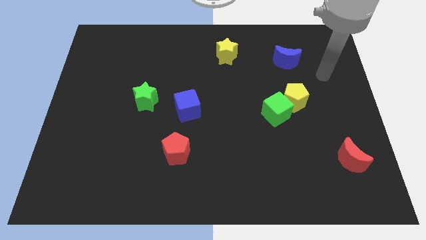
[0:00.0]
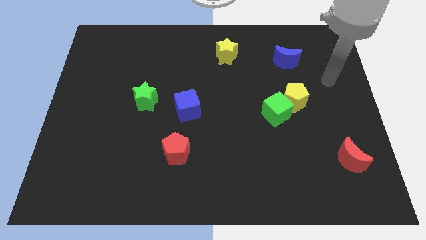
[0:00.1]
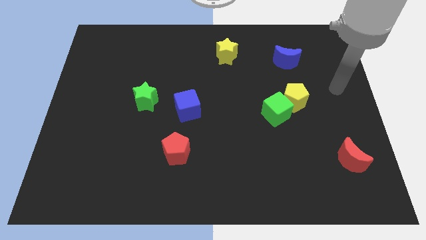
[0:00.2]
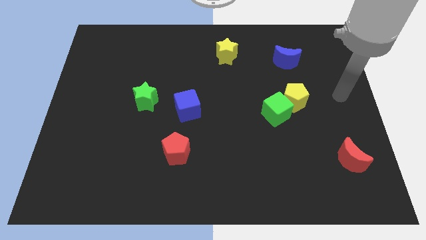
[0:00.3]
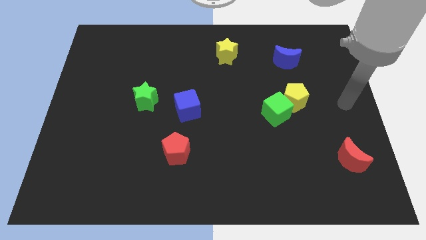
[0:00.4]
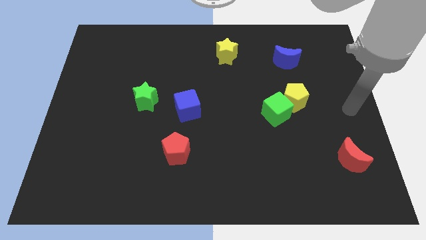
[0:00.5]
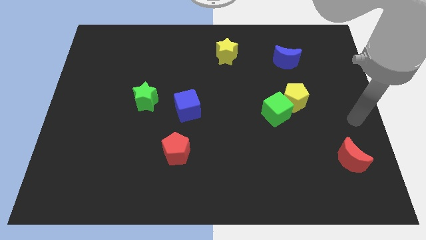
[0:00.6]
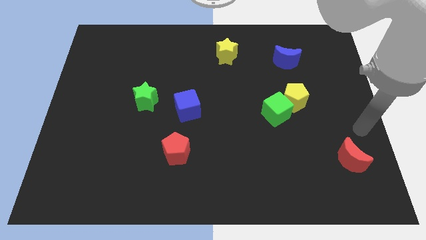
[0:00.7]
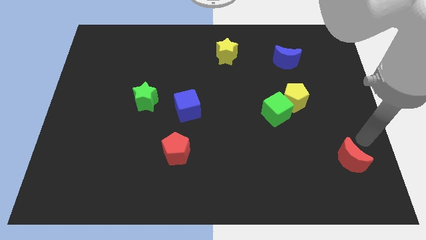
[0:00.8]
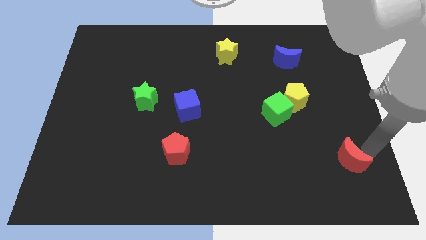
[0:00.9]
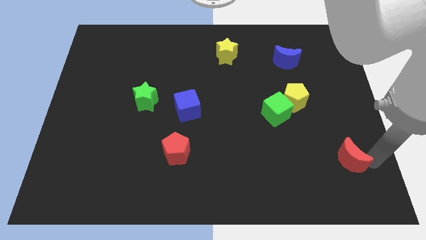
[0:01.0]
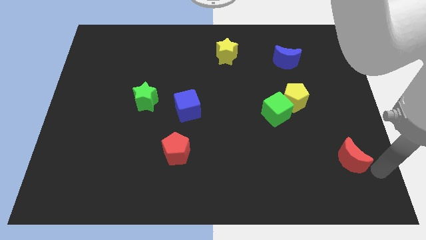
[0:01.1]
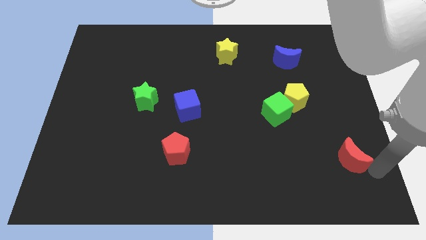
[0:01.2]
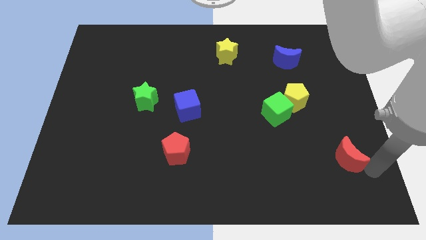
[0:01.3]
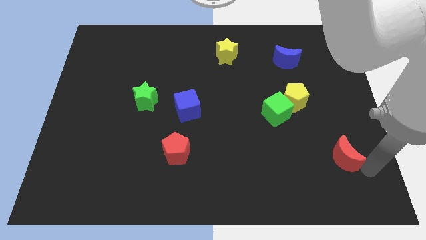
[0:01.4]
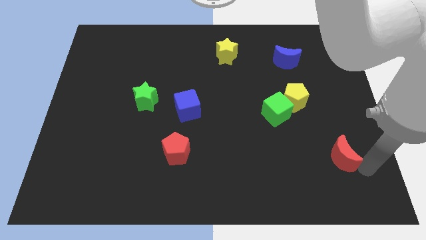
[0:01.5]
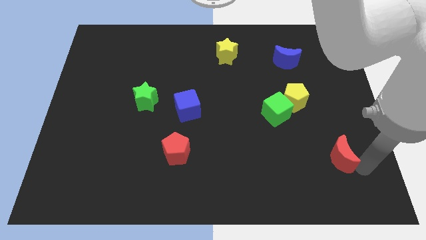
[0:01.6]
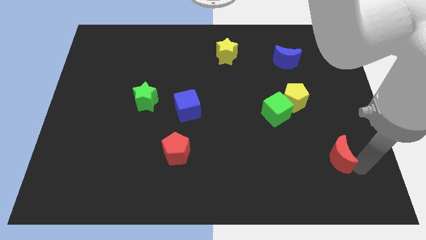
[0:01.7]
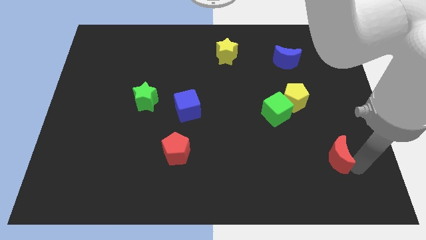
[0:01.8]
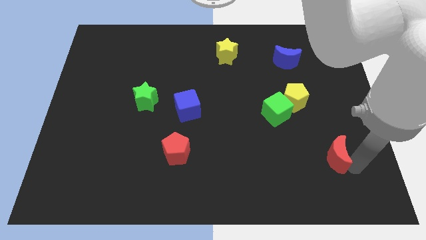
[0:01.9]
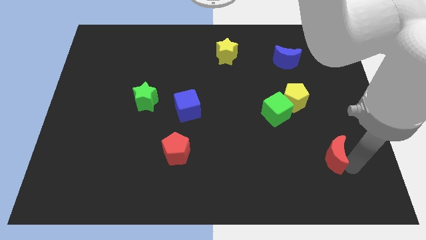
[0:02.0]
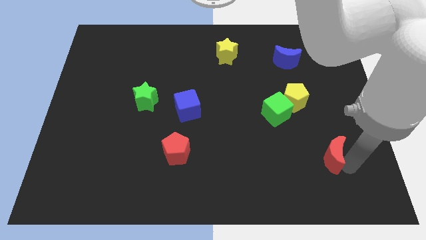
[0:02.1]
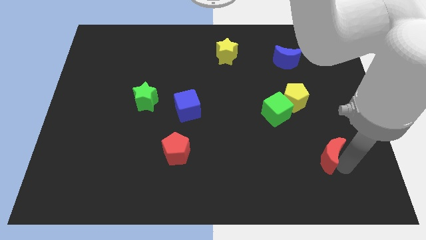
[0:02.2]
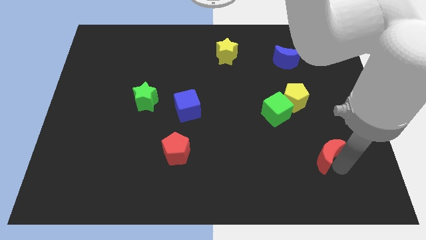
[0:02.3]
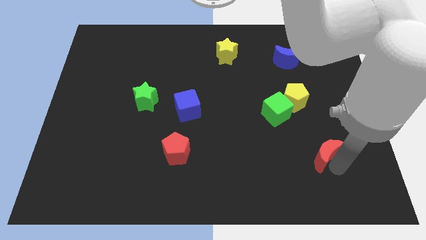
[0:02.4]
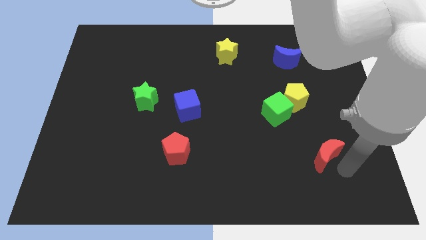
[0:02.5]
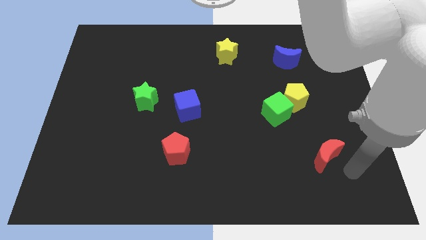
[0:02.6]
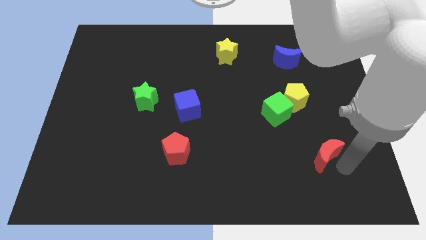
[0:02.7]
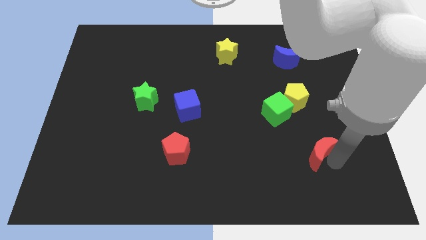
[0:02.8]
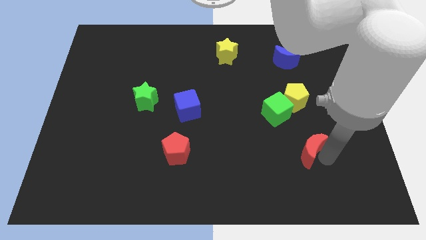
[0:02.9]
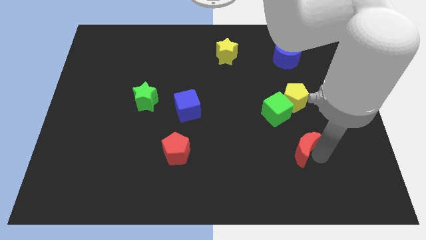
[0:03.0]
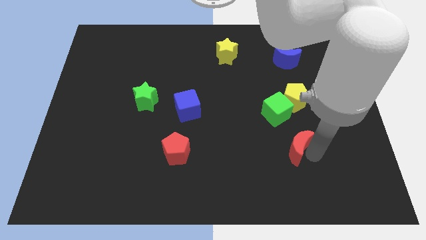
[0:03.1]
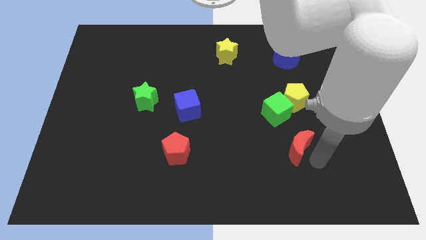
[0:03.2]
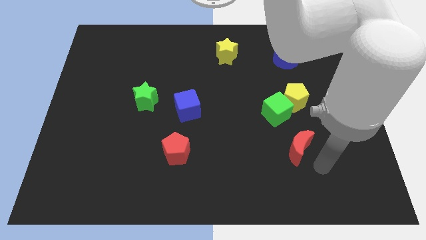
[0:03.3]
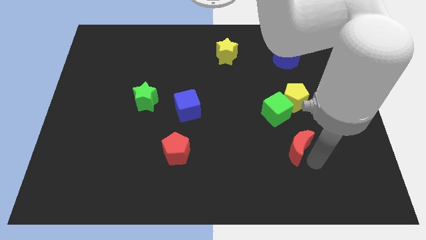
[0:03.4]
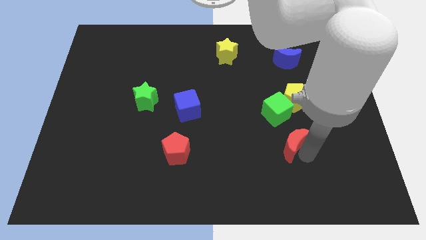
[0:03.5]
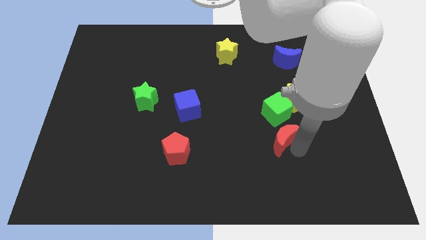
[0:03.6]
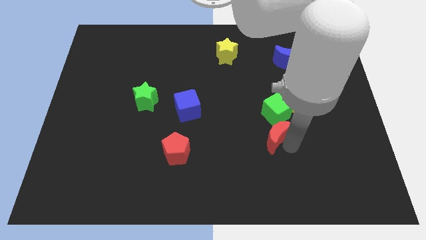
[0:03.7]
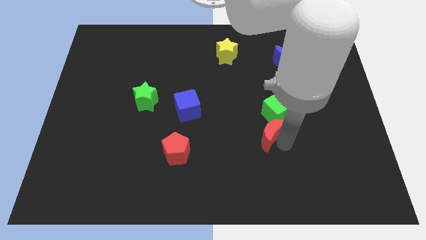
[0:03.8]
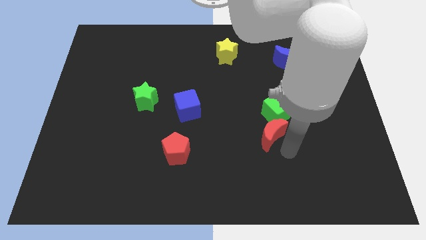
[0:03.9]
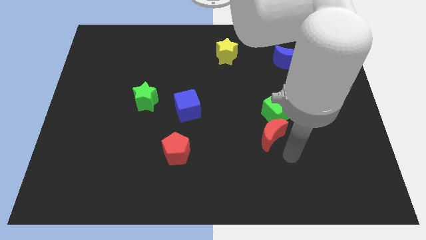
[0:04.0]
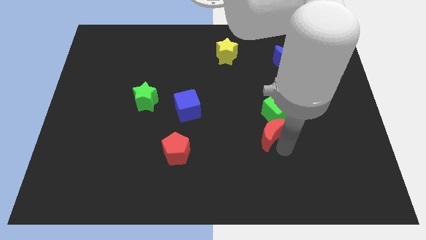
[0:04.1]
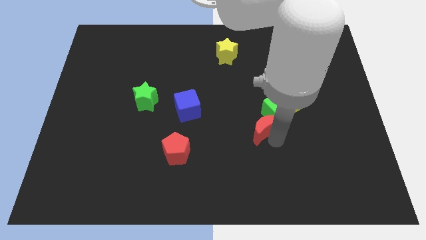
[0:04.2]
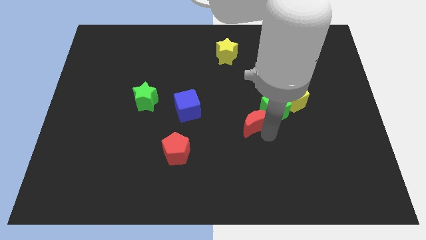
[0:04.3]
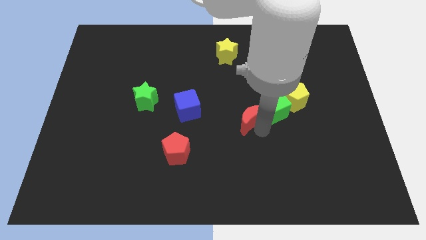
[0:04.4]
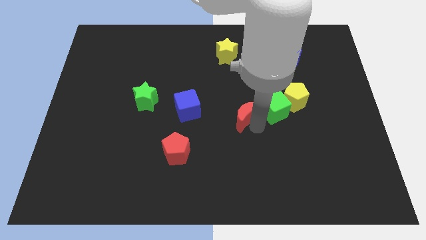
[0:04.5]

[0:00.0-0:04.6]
move the red moon diagonally upwards and left

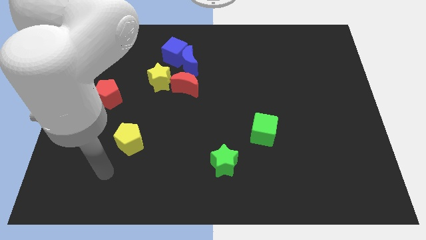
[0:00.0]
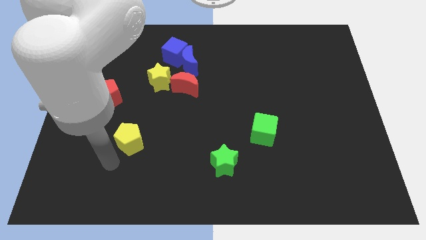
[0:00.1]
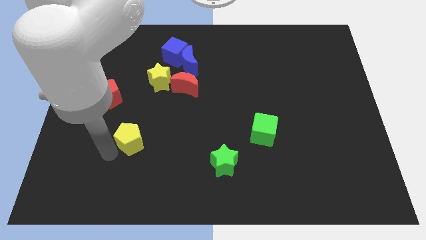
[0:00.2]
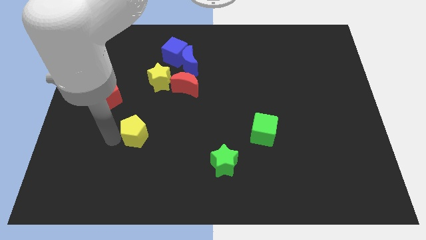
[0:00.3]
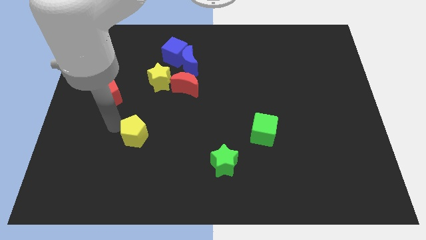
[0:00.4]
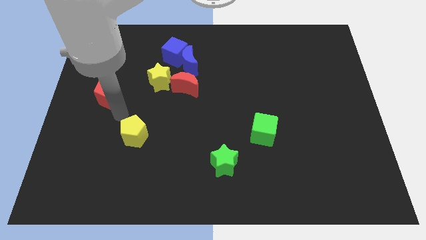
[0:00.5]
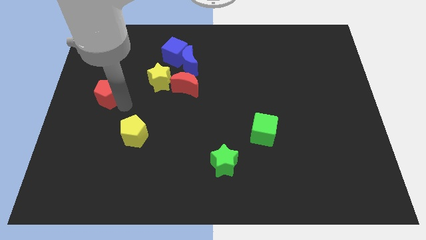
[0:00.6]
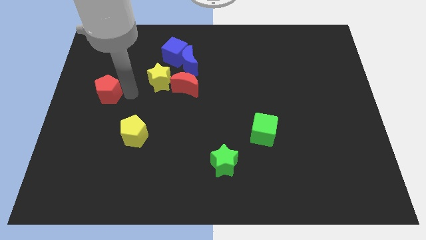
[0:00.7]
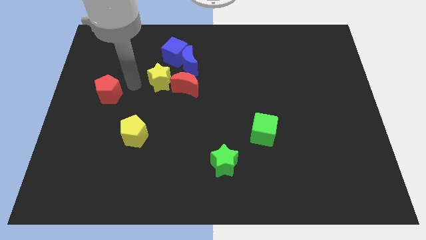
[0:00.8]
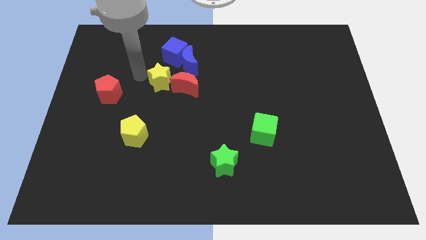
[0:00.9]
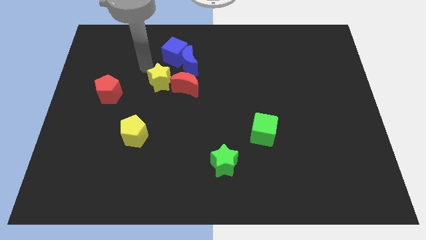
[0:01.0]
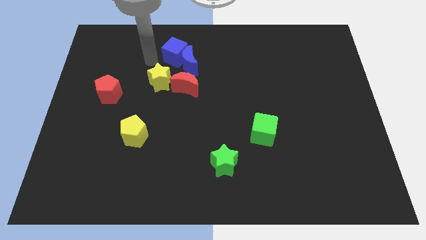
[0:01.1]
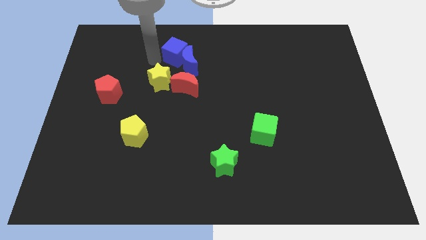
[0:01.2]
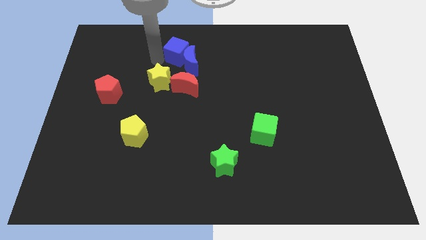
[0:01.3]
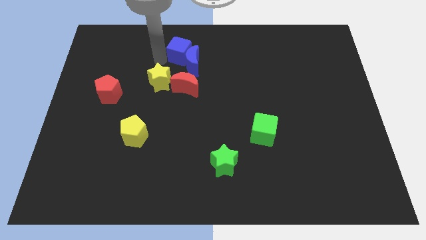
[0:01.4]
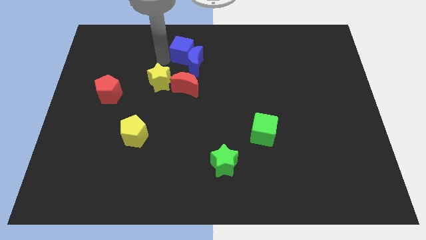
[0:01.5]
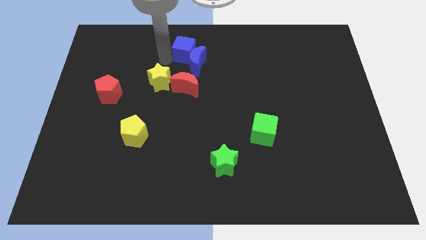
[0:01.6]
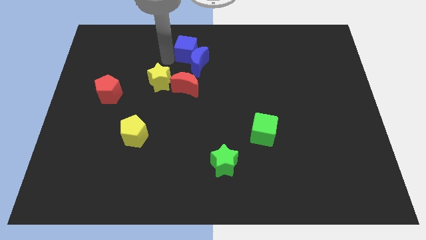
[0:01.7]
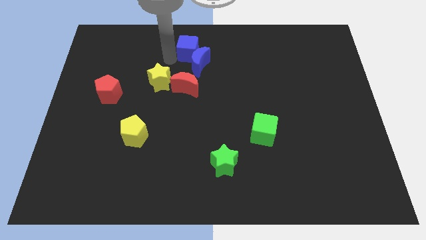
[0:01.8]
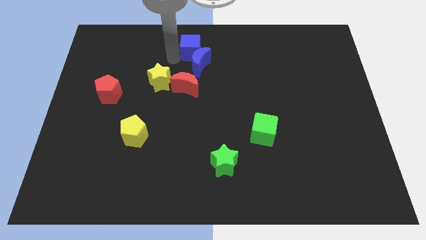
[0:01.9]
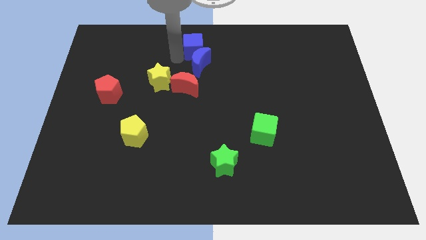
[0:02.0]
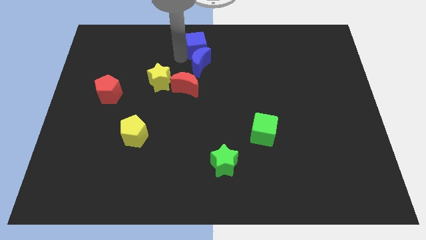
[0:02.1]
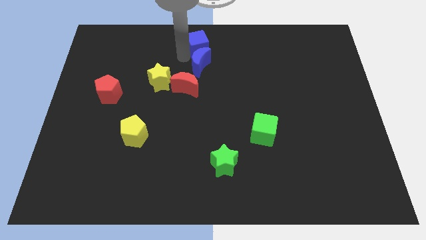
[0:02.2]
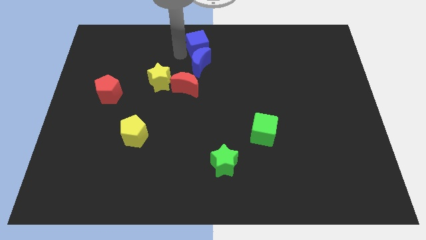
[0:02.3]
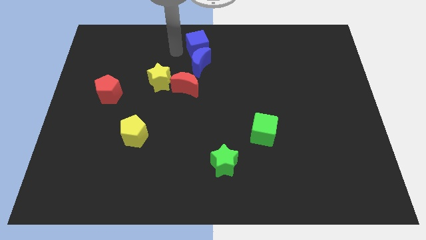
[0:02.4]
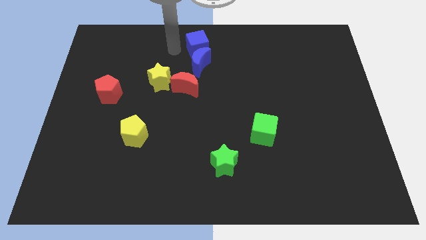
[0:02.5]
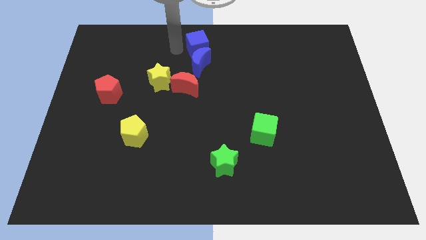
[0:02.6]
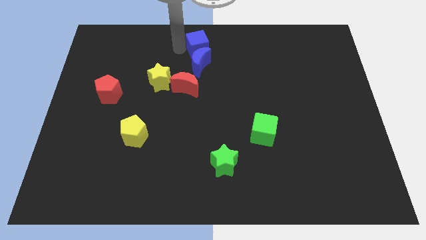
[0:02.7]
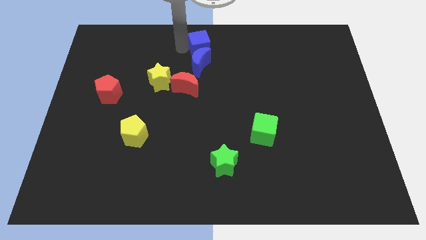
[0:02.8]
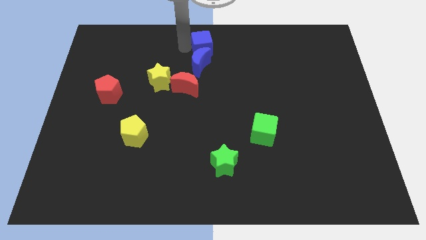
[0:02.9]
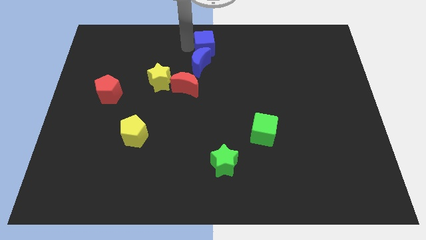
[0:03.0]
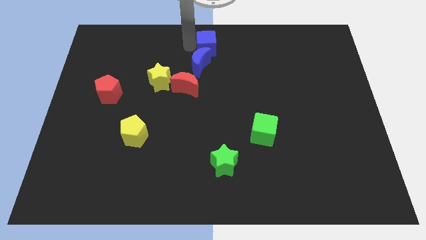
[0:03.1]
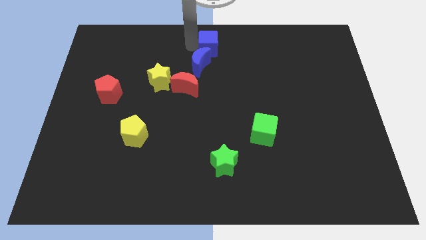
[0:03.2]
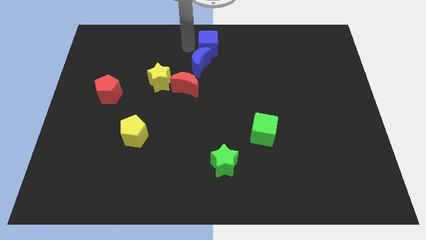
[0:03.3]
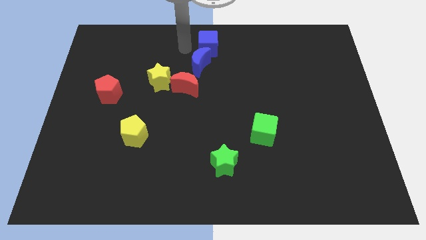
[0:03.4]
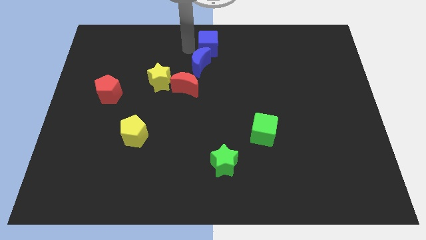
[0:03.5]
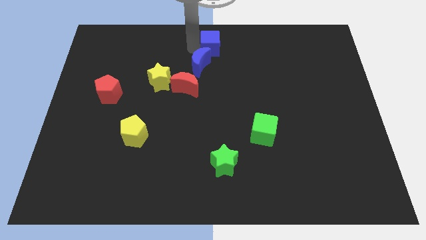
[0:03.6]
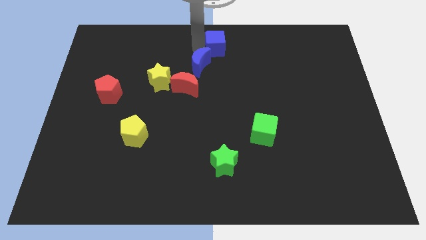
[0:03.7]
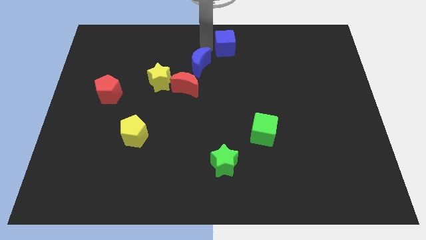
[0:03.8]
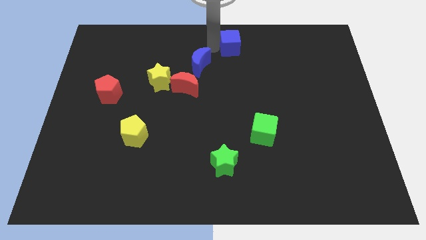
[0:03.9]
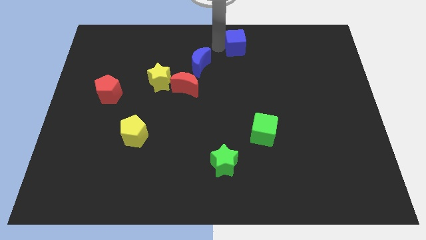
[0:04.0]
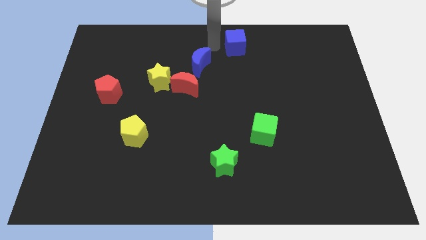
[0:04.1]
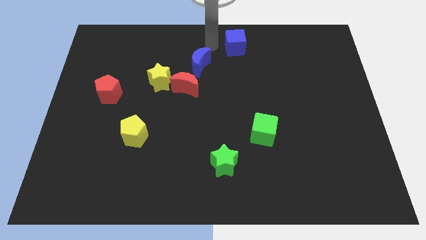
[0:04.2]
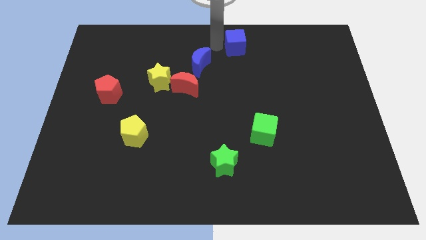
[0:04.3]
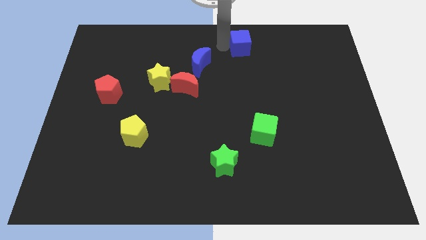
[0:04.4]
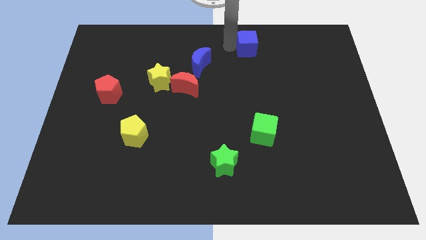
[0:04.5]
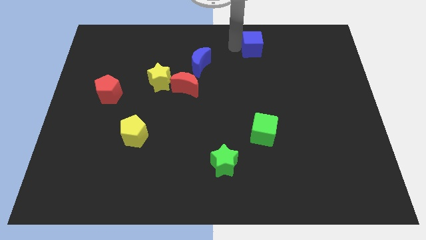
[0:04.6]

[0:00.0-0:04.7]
slide the blue cube to the right
